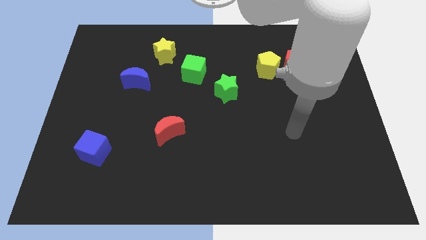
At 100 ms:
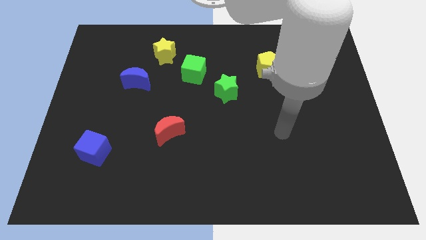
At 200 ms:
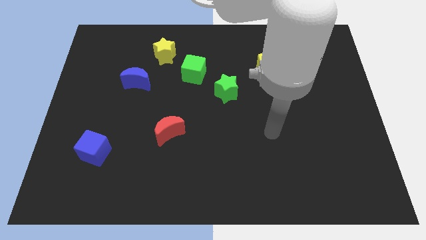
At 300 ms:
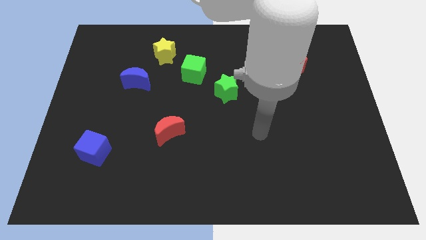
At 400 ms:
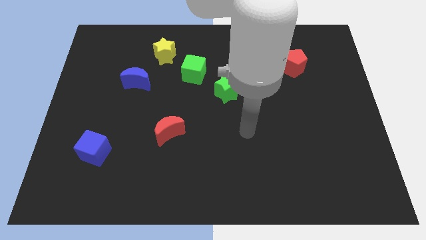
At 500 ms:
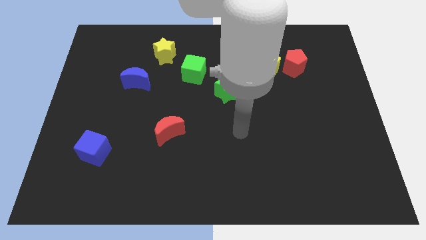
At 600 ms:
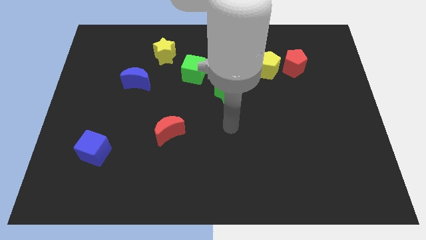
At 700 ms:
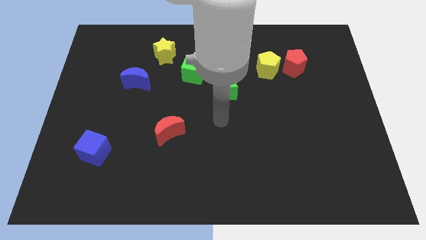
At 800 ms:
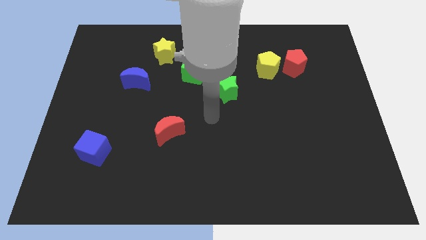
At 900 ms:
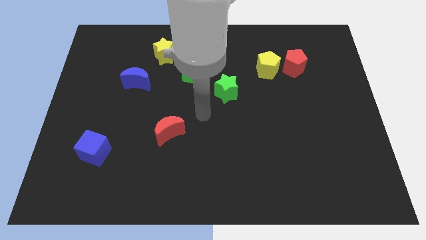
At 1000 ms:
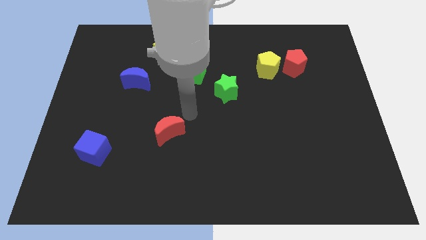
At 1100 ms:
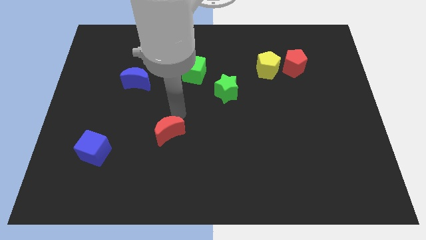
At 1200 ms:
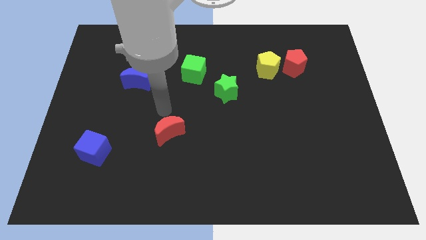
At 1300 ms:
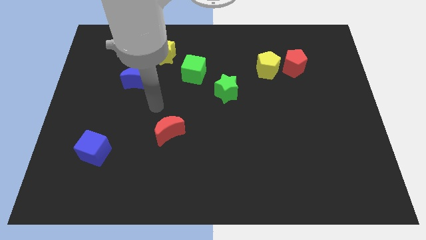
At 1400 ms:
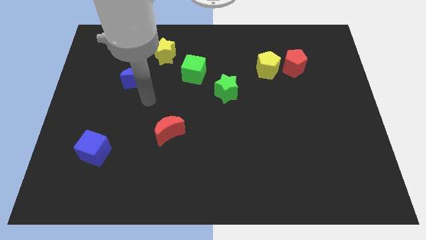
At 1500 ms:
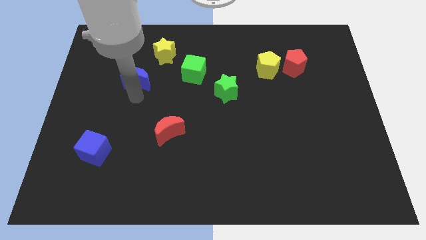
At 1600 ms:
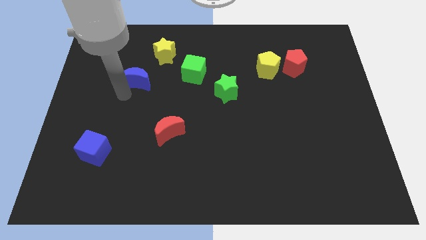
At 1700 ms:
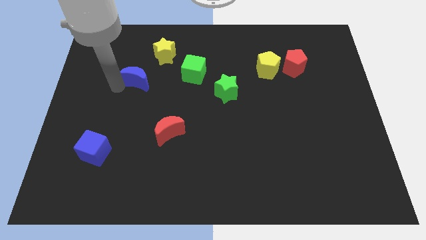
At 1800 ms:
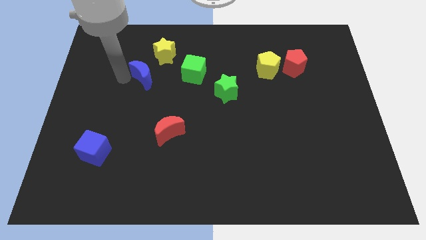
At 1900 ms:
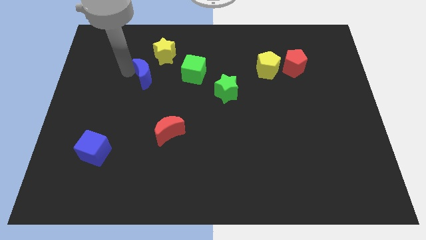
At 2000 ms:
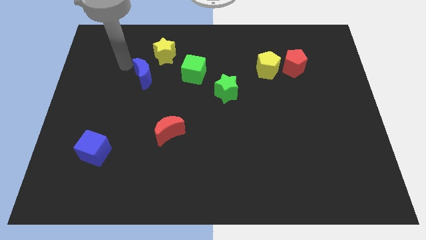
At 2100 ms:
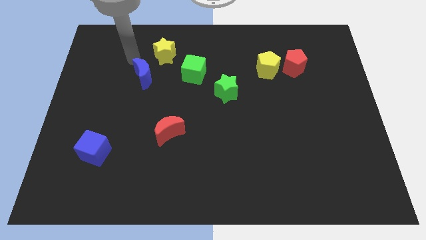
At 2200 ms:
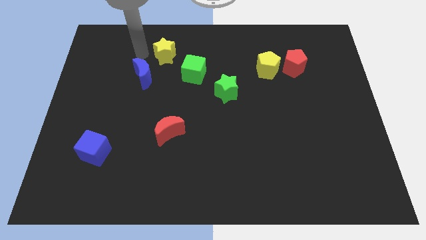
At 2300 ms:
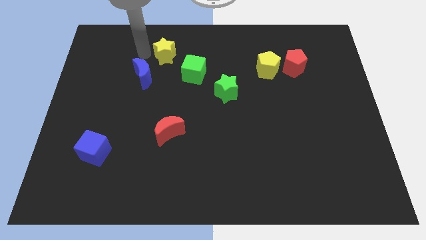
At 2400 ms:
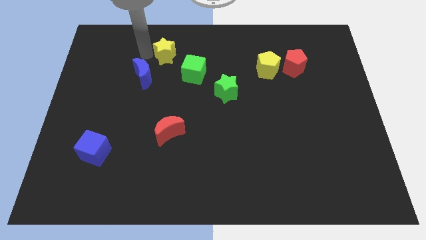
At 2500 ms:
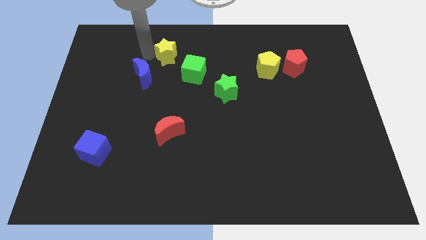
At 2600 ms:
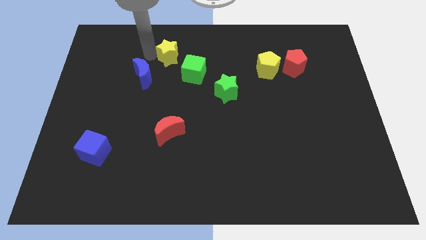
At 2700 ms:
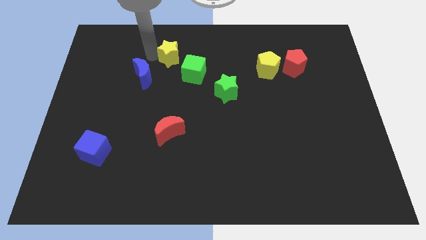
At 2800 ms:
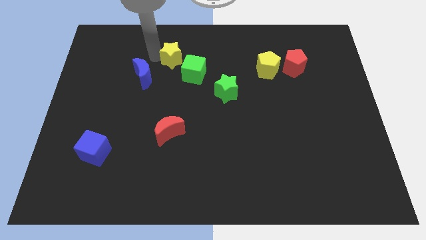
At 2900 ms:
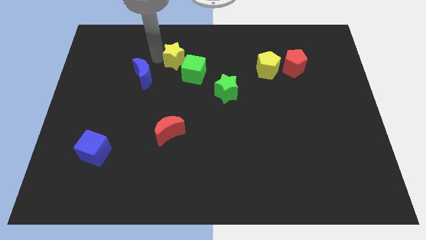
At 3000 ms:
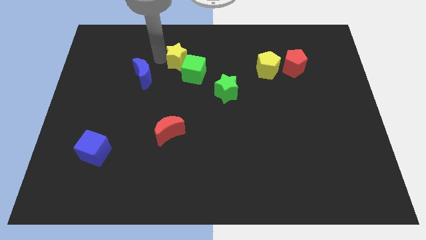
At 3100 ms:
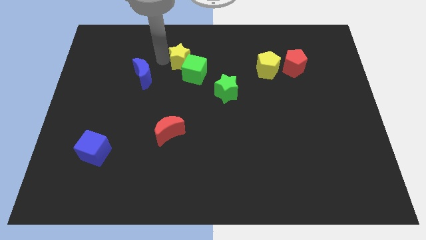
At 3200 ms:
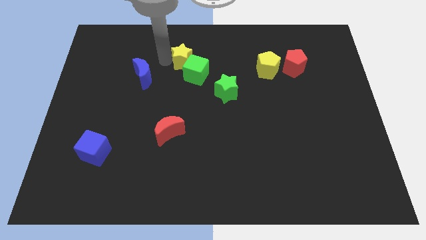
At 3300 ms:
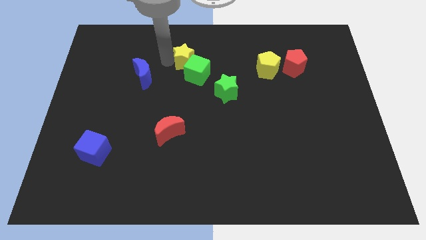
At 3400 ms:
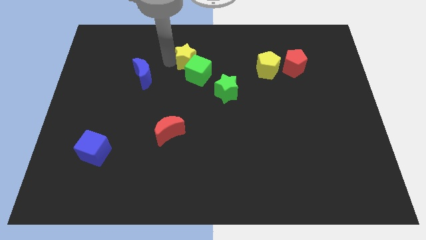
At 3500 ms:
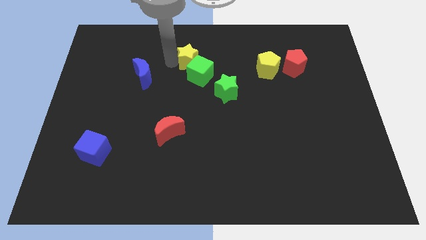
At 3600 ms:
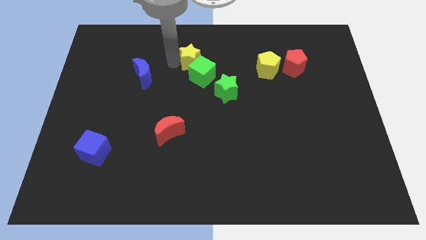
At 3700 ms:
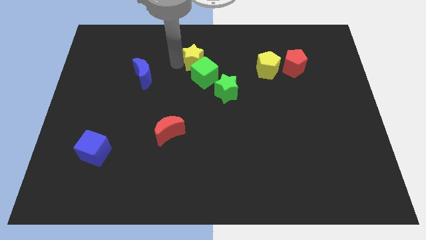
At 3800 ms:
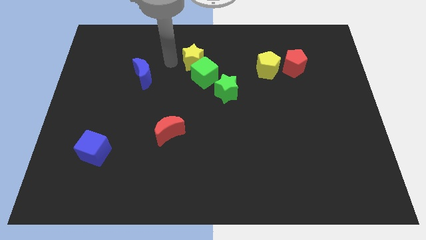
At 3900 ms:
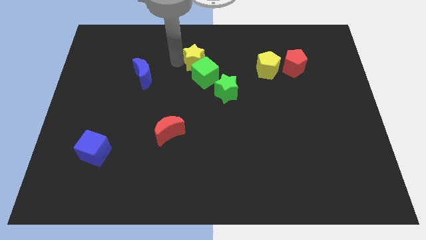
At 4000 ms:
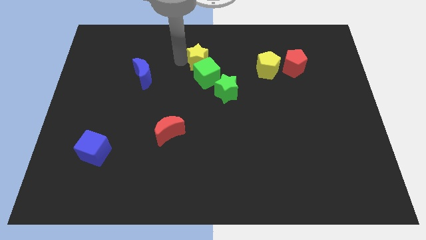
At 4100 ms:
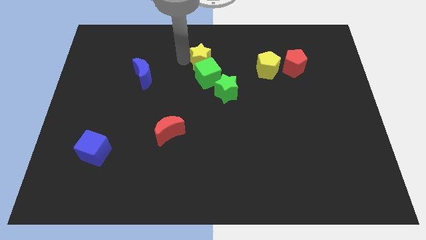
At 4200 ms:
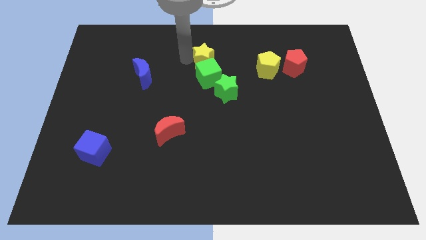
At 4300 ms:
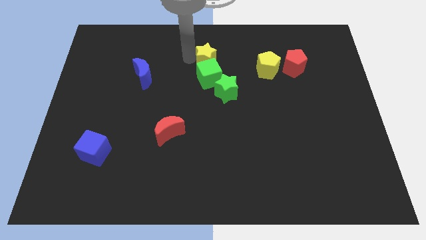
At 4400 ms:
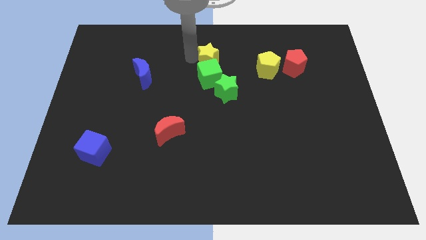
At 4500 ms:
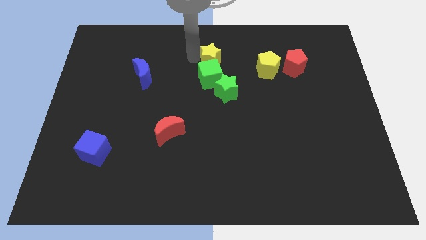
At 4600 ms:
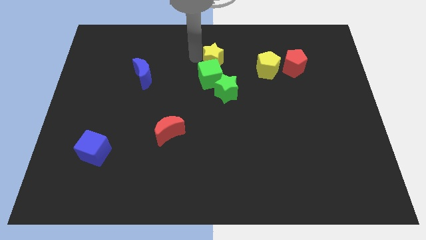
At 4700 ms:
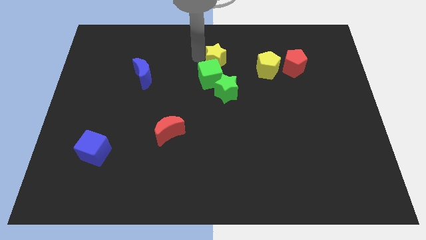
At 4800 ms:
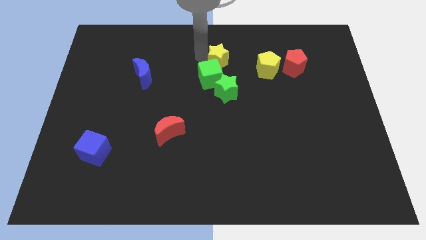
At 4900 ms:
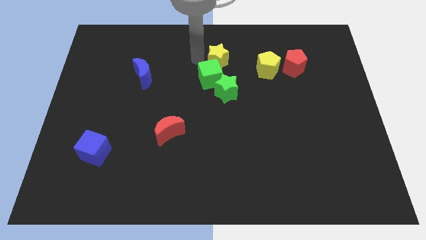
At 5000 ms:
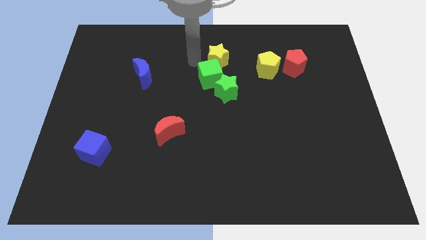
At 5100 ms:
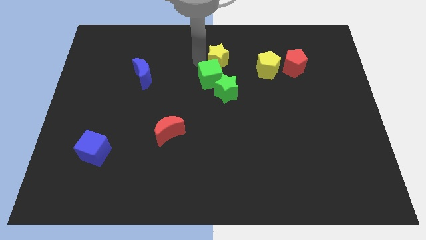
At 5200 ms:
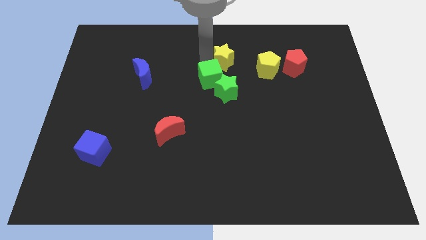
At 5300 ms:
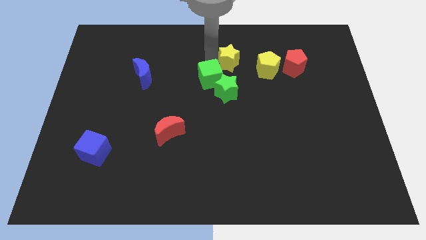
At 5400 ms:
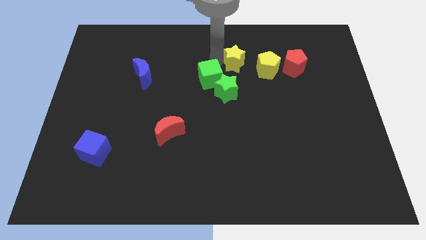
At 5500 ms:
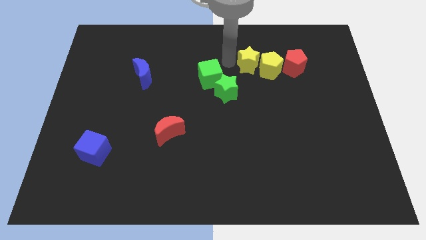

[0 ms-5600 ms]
push the yellow star right

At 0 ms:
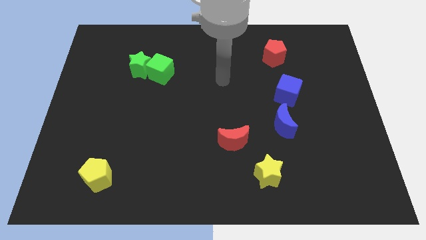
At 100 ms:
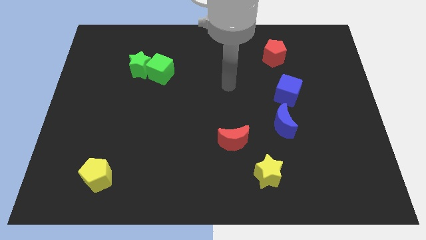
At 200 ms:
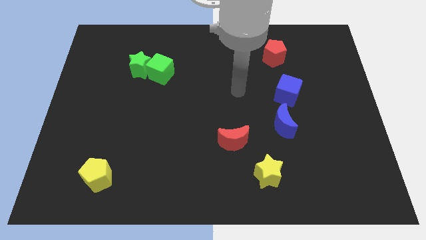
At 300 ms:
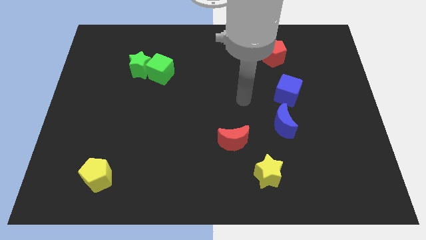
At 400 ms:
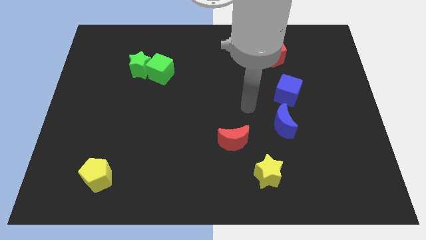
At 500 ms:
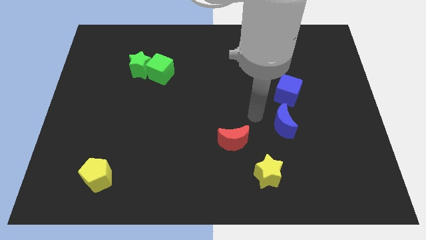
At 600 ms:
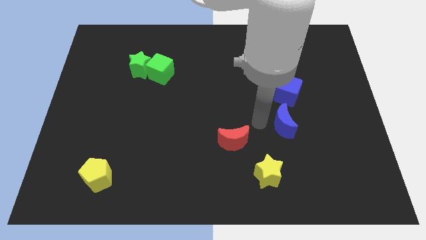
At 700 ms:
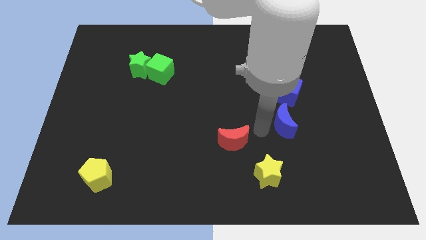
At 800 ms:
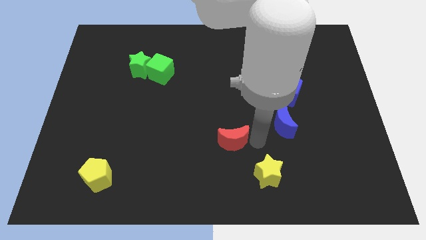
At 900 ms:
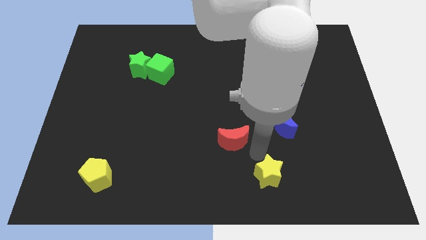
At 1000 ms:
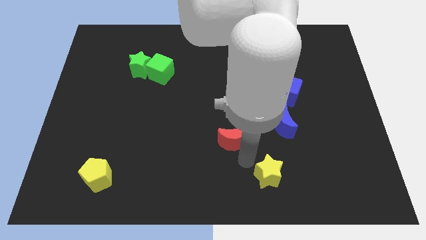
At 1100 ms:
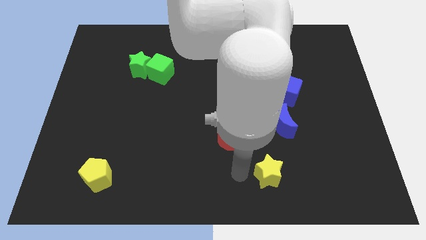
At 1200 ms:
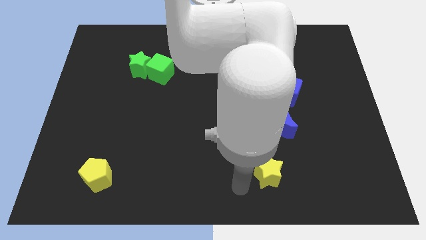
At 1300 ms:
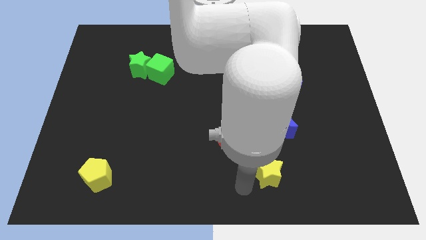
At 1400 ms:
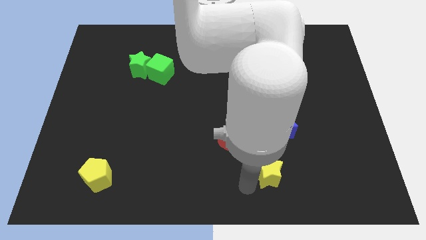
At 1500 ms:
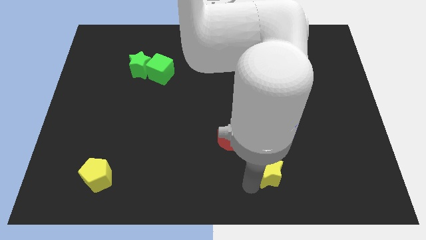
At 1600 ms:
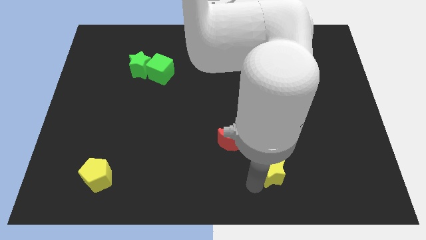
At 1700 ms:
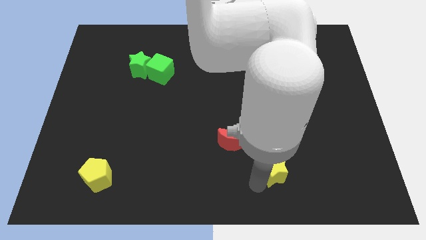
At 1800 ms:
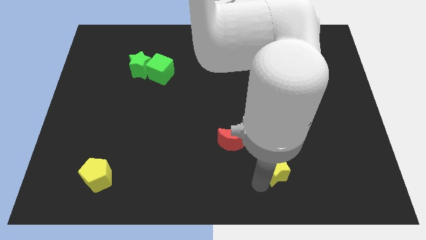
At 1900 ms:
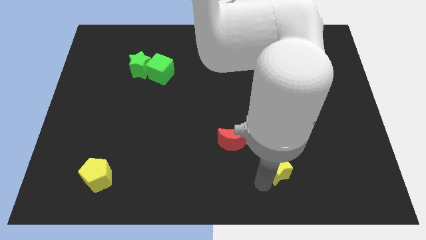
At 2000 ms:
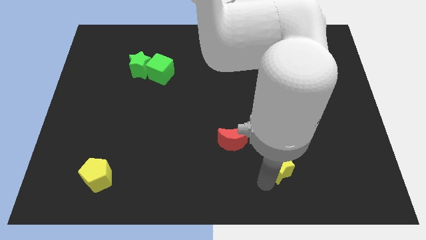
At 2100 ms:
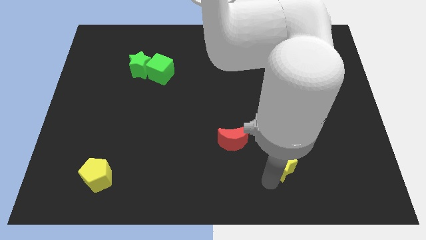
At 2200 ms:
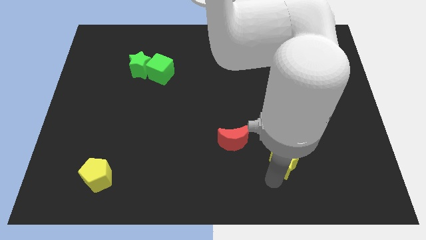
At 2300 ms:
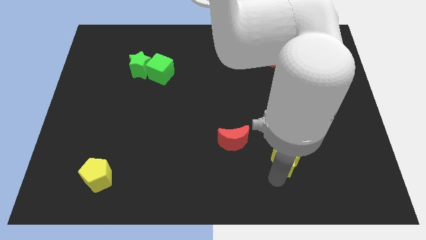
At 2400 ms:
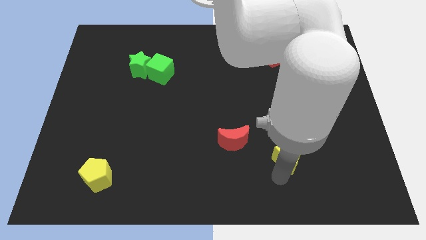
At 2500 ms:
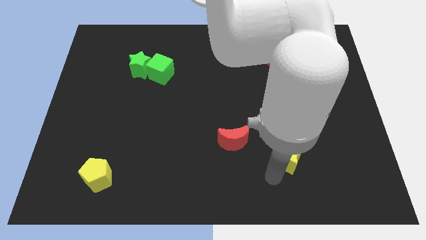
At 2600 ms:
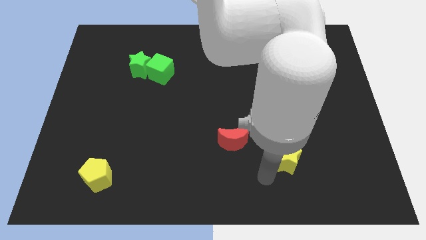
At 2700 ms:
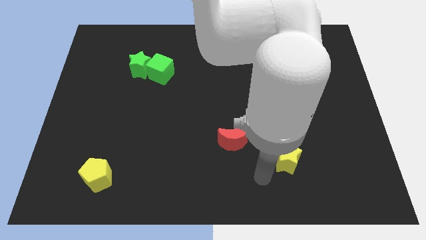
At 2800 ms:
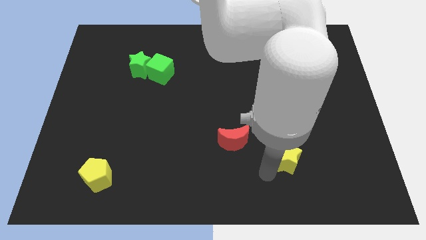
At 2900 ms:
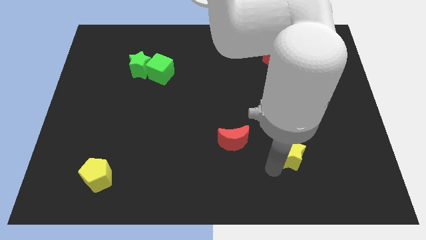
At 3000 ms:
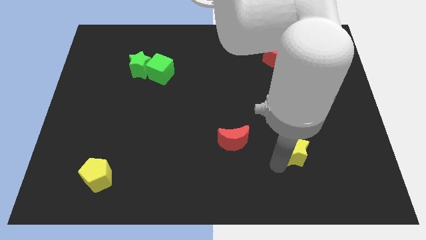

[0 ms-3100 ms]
slide the yellow star a bit upwards and then right
